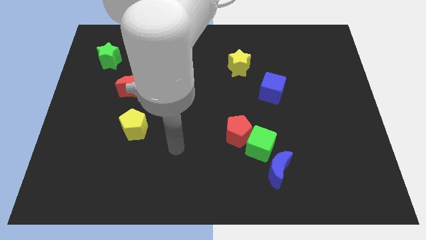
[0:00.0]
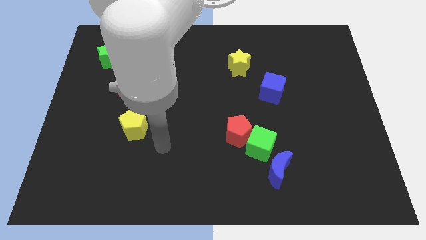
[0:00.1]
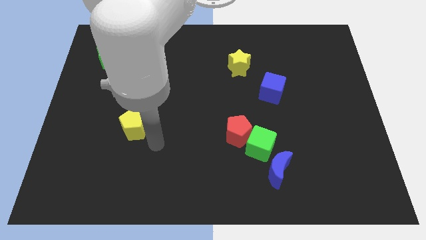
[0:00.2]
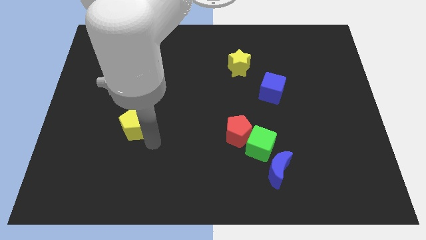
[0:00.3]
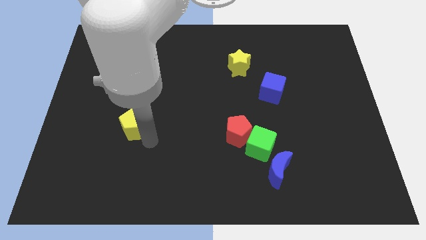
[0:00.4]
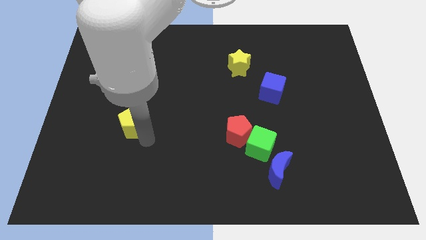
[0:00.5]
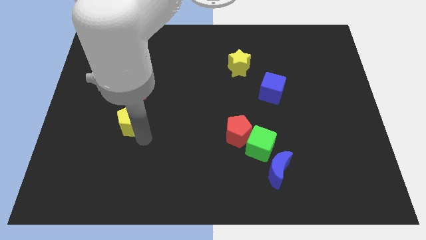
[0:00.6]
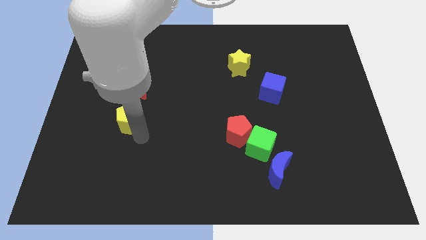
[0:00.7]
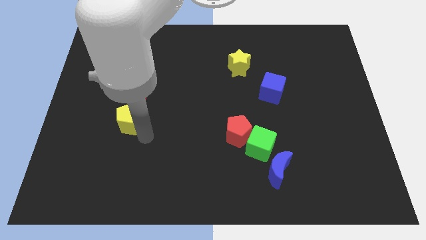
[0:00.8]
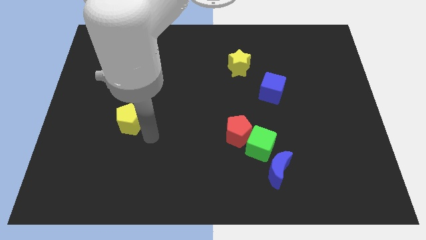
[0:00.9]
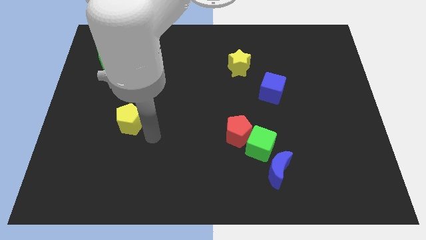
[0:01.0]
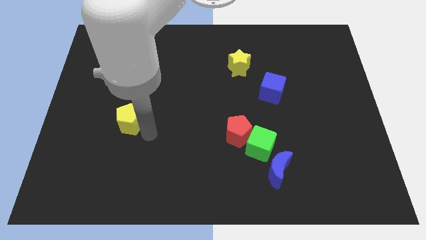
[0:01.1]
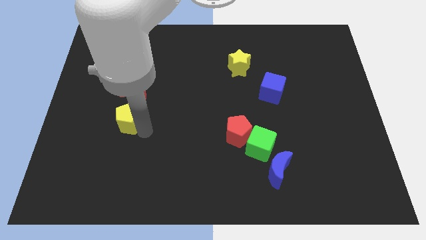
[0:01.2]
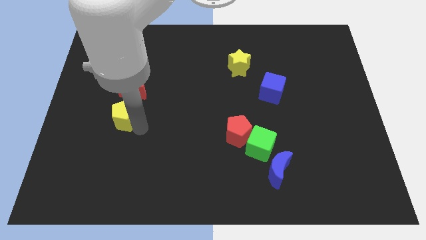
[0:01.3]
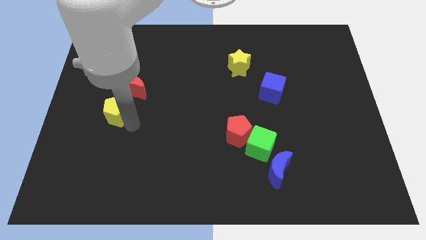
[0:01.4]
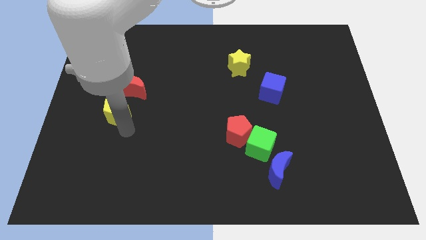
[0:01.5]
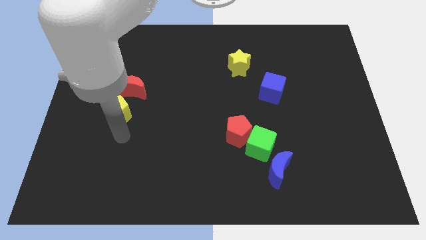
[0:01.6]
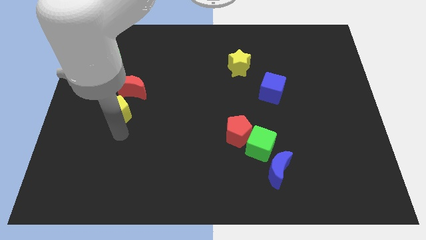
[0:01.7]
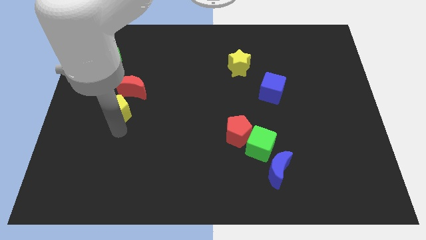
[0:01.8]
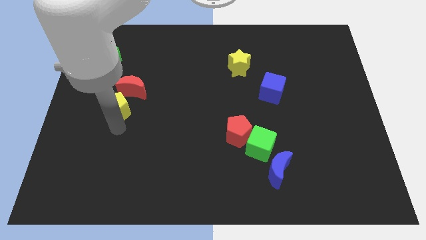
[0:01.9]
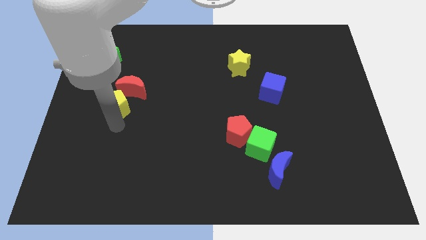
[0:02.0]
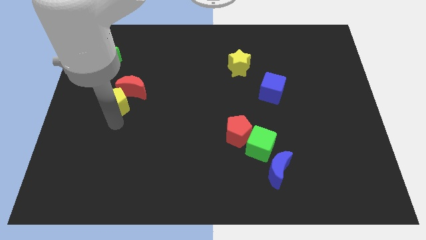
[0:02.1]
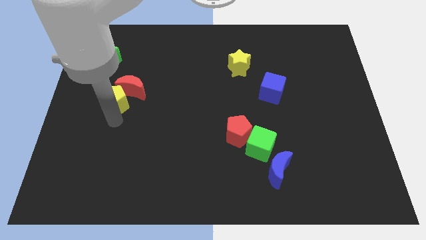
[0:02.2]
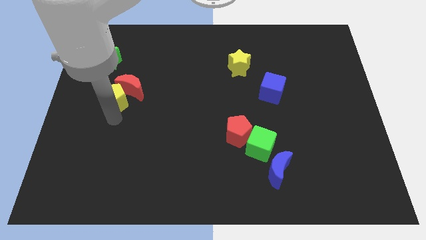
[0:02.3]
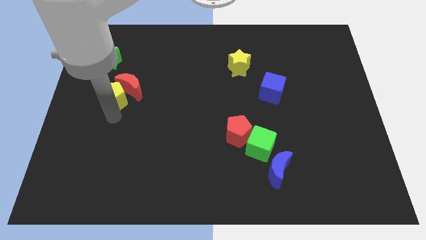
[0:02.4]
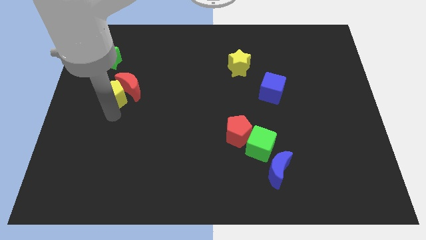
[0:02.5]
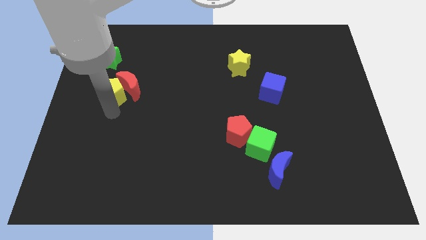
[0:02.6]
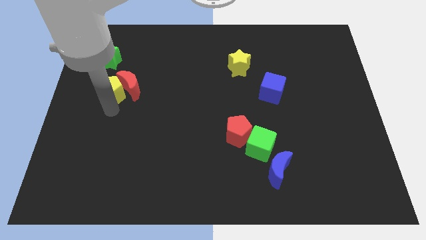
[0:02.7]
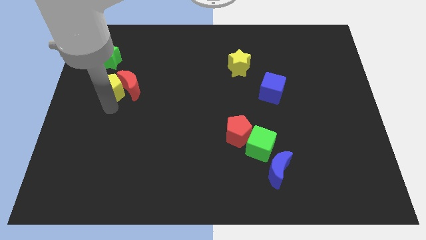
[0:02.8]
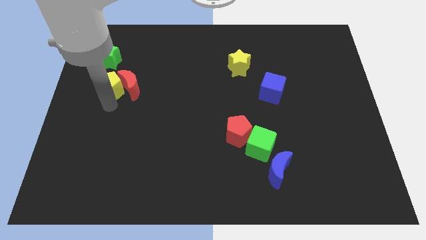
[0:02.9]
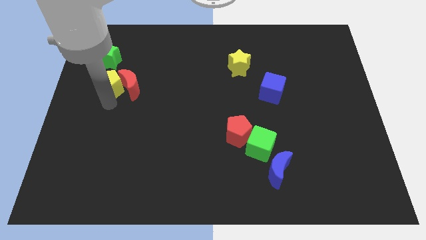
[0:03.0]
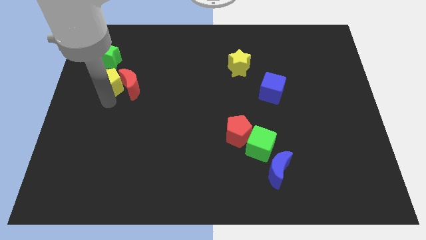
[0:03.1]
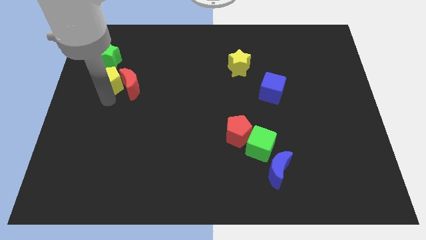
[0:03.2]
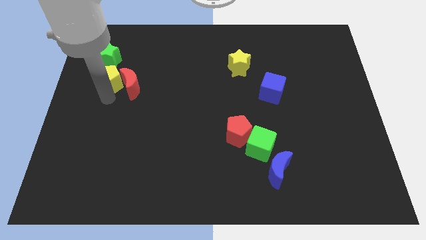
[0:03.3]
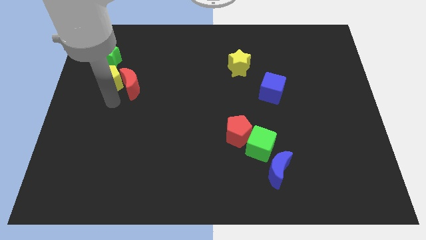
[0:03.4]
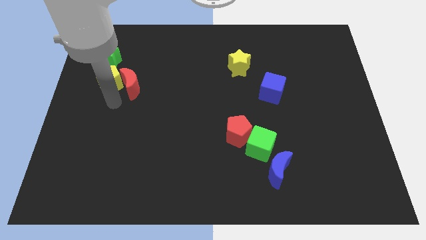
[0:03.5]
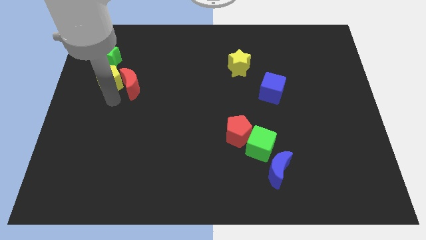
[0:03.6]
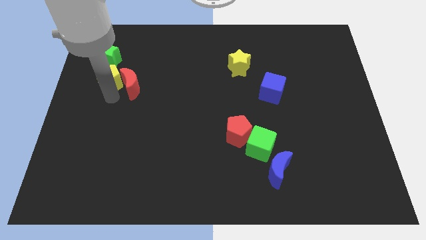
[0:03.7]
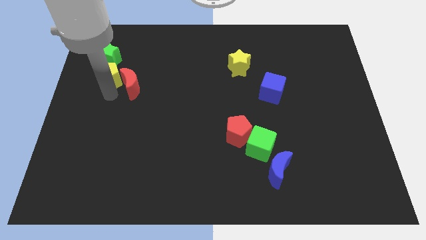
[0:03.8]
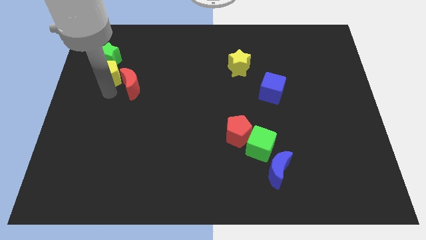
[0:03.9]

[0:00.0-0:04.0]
put the yellow pentagon to the green star

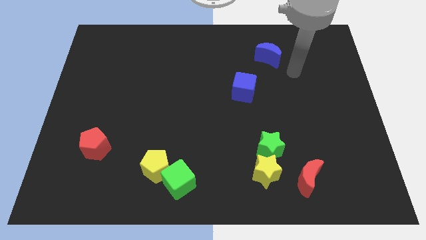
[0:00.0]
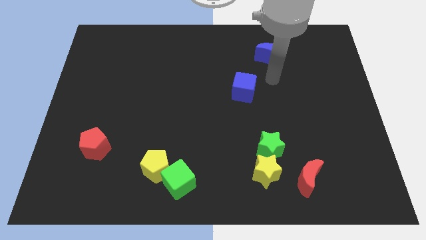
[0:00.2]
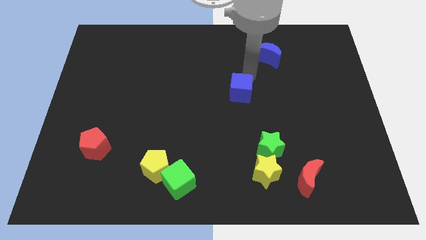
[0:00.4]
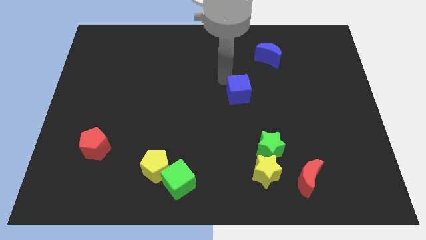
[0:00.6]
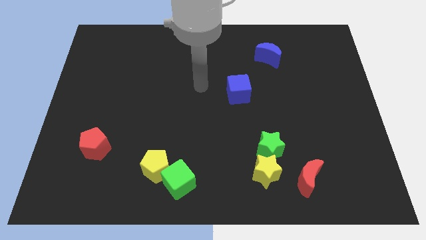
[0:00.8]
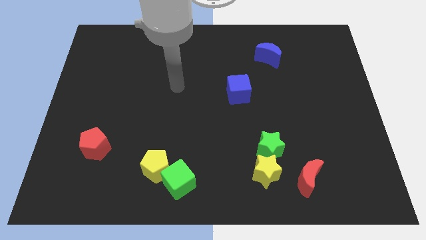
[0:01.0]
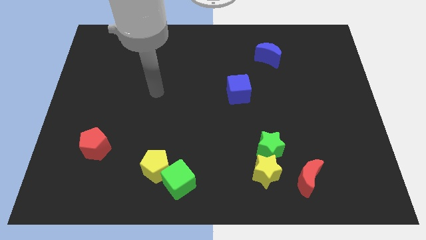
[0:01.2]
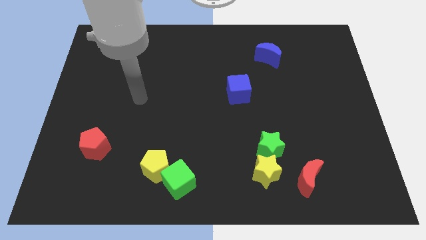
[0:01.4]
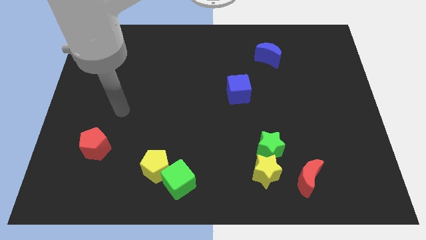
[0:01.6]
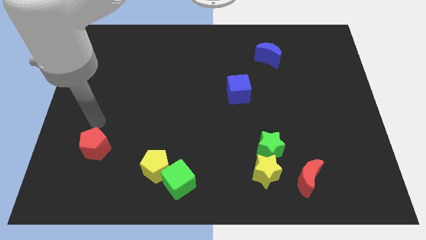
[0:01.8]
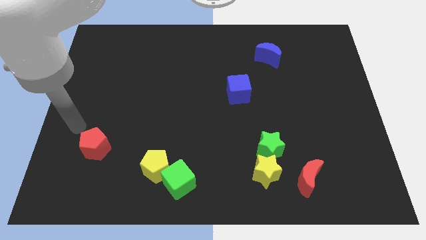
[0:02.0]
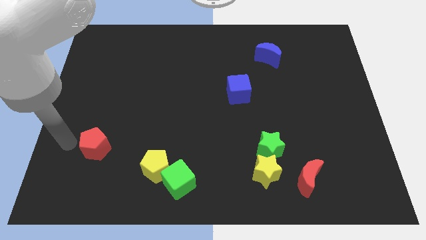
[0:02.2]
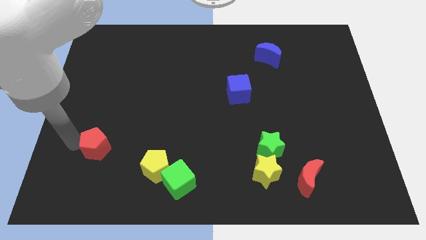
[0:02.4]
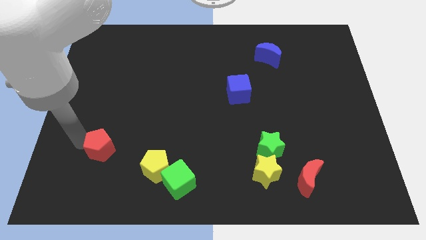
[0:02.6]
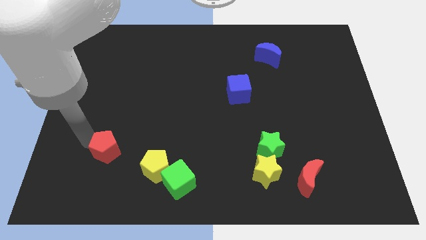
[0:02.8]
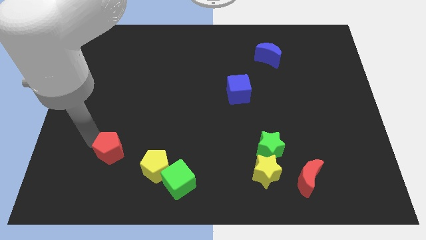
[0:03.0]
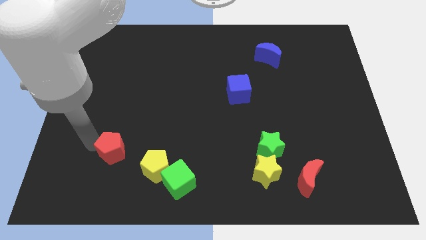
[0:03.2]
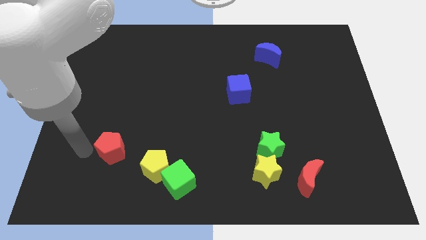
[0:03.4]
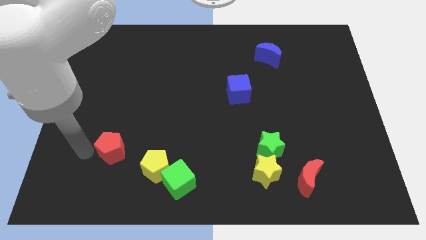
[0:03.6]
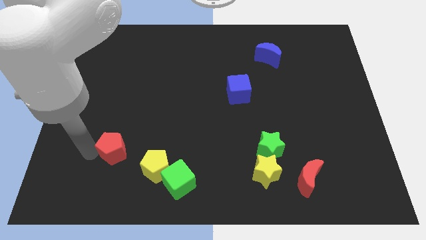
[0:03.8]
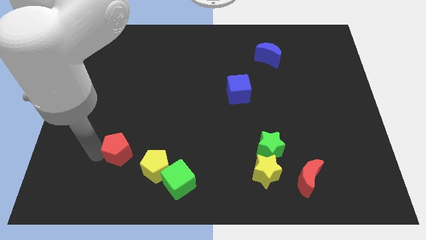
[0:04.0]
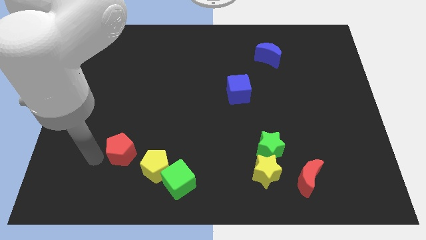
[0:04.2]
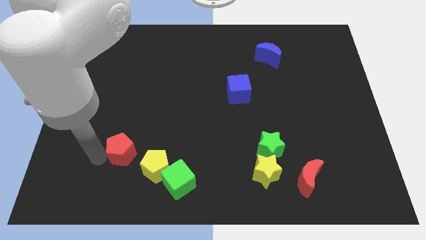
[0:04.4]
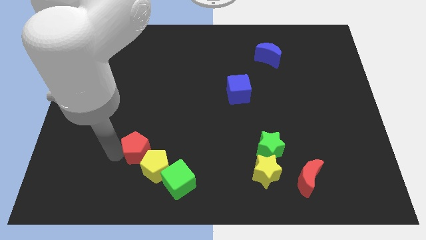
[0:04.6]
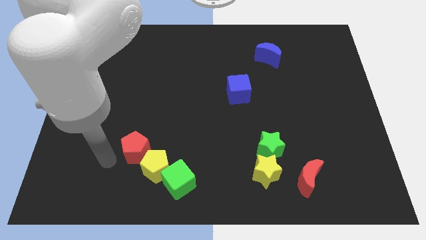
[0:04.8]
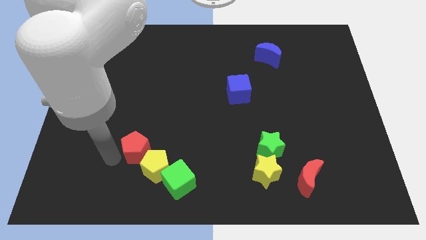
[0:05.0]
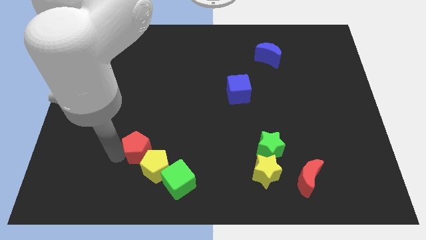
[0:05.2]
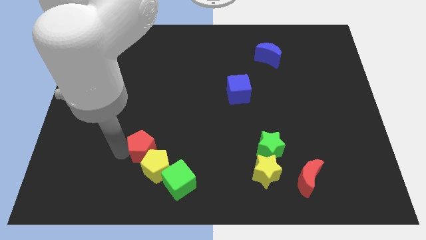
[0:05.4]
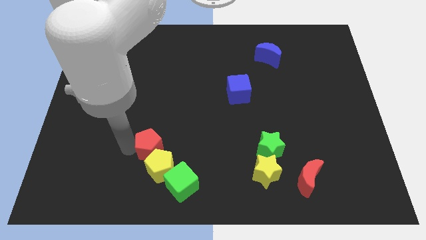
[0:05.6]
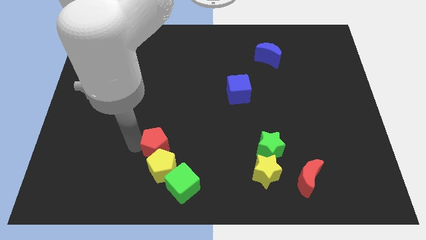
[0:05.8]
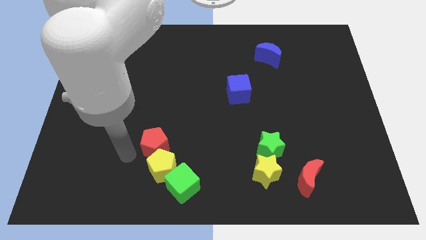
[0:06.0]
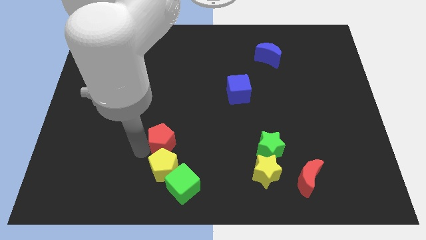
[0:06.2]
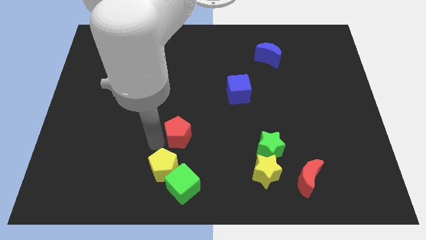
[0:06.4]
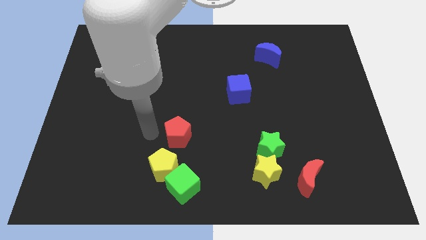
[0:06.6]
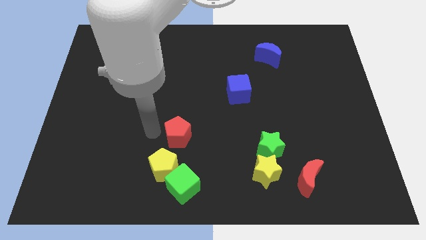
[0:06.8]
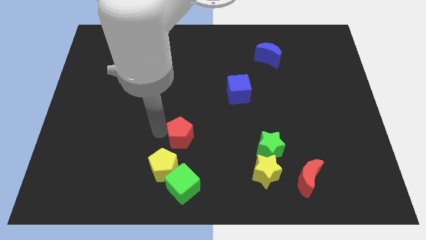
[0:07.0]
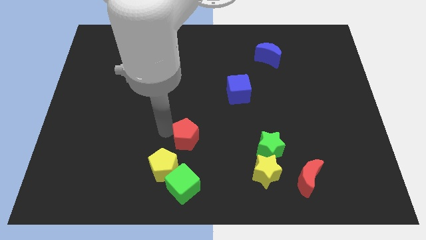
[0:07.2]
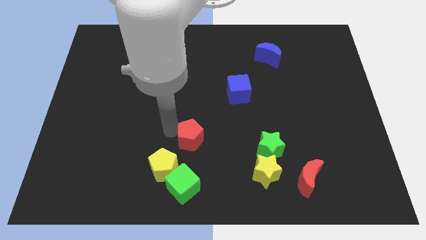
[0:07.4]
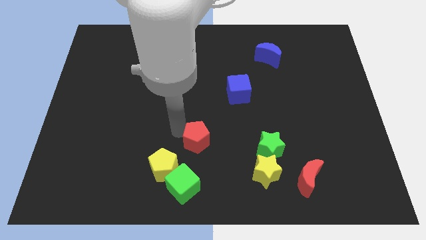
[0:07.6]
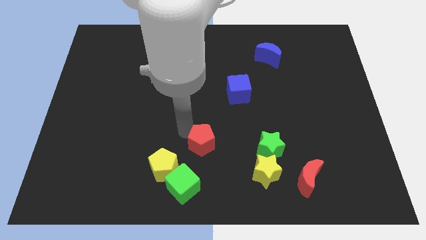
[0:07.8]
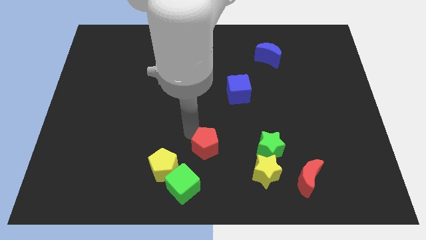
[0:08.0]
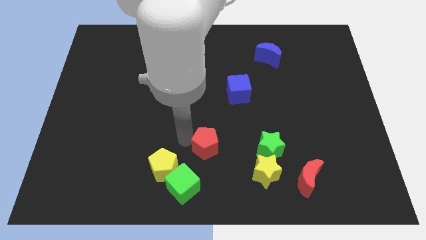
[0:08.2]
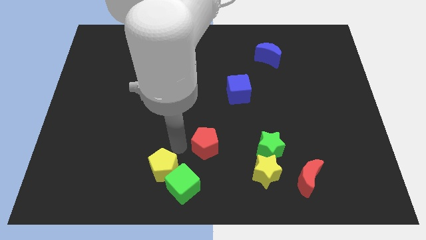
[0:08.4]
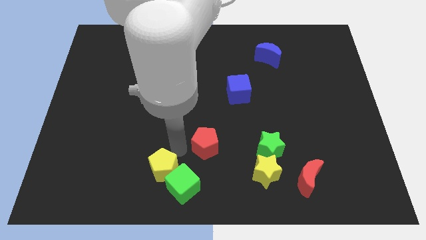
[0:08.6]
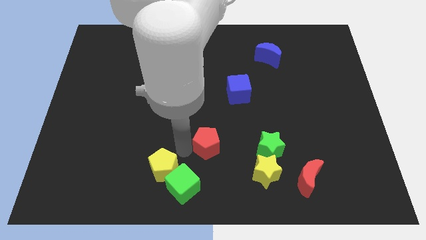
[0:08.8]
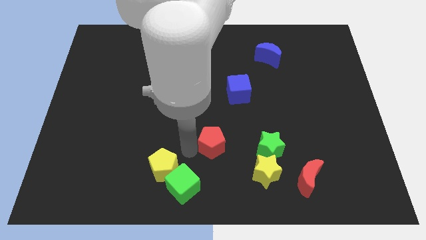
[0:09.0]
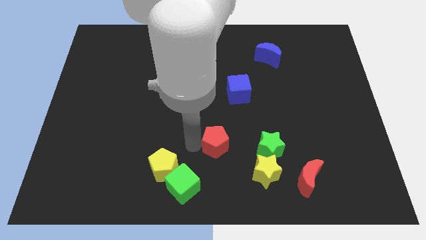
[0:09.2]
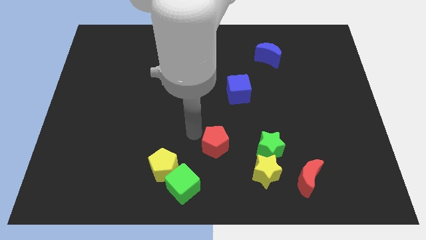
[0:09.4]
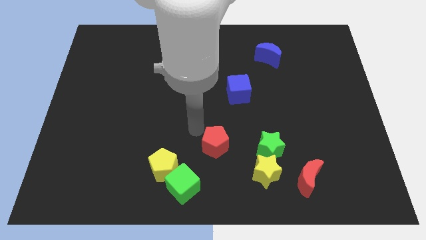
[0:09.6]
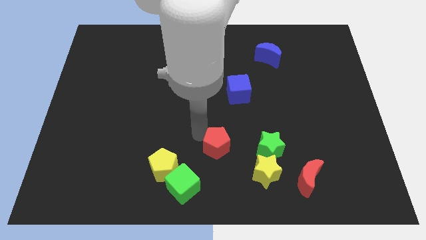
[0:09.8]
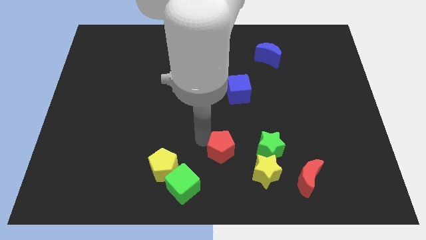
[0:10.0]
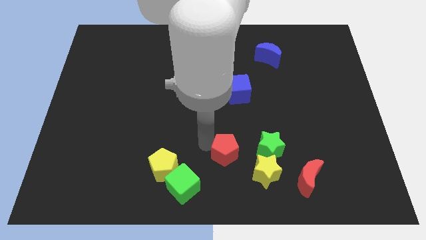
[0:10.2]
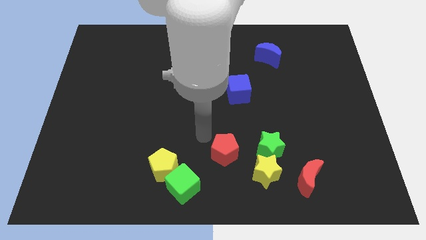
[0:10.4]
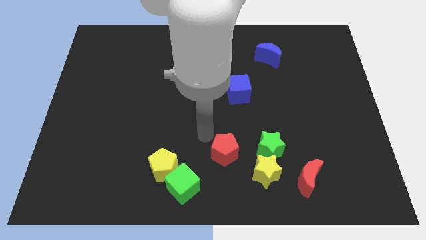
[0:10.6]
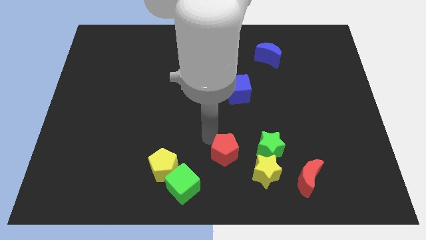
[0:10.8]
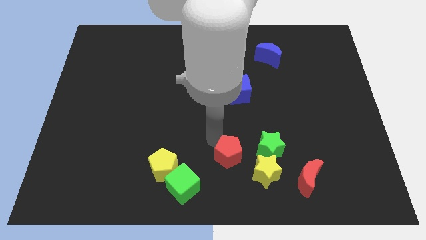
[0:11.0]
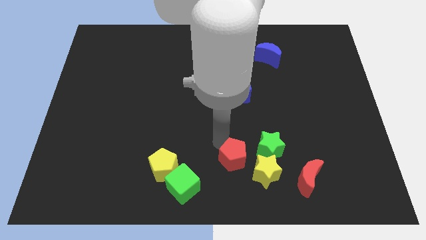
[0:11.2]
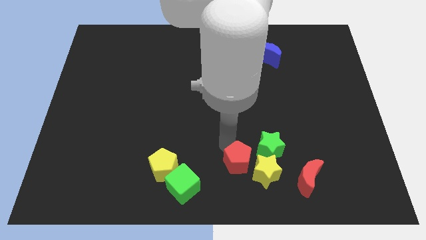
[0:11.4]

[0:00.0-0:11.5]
put the red pentagon close to the yellow star
